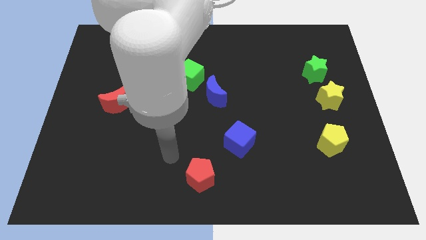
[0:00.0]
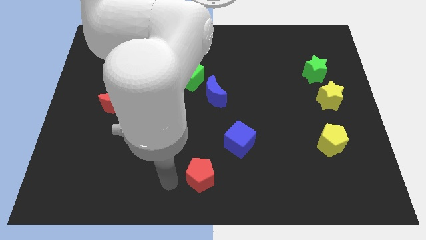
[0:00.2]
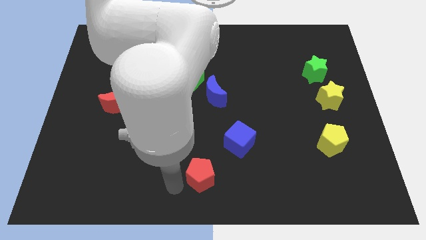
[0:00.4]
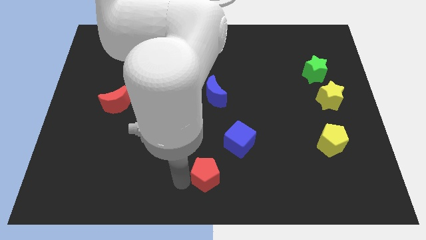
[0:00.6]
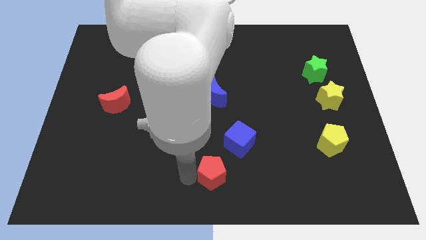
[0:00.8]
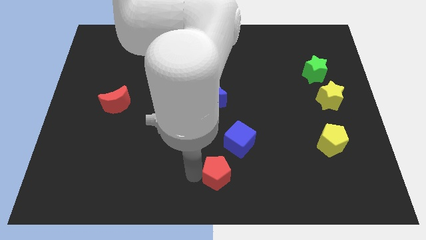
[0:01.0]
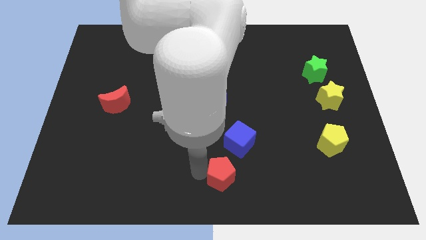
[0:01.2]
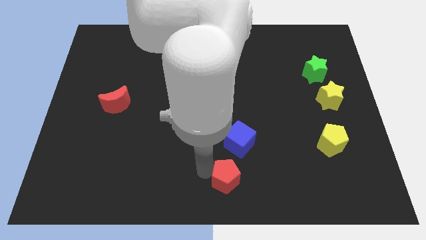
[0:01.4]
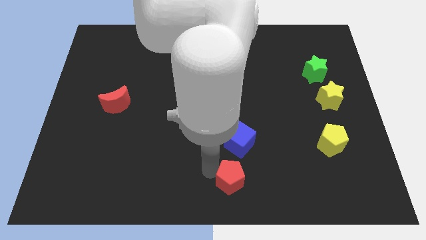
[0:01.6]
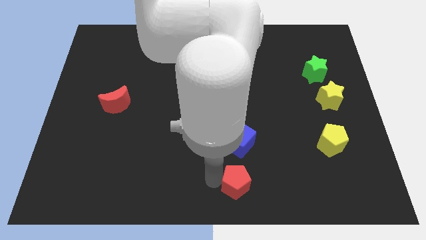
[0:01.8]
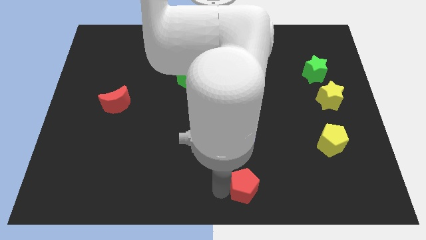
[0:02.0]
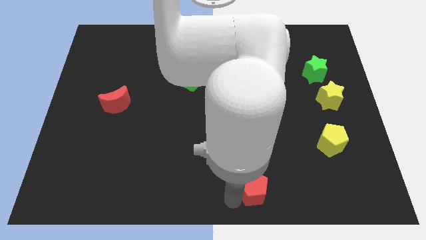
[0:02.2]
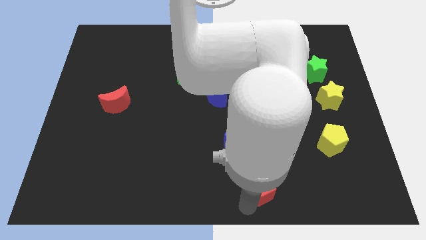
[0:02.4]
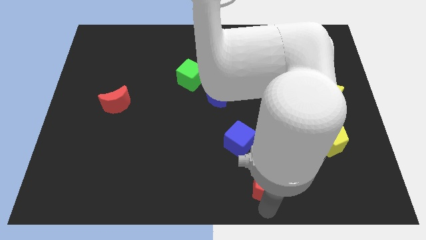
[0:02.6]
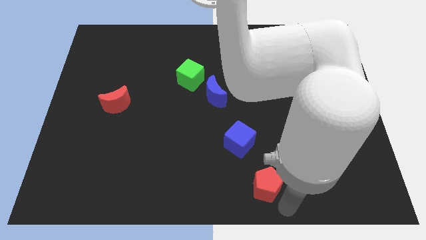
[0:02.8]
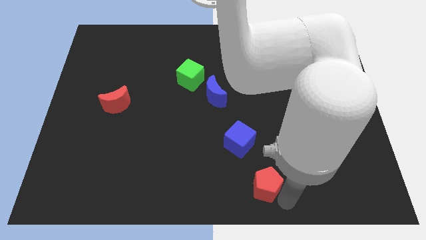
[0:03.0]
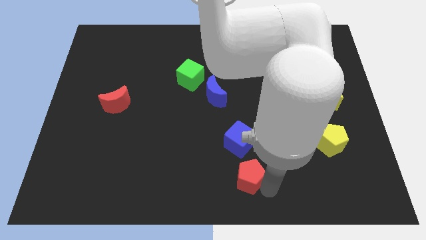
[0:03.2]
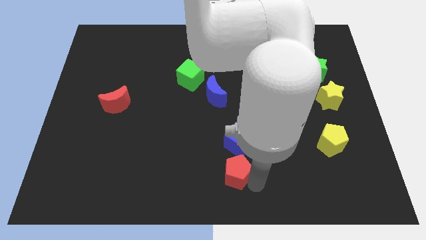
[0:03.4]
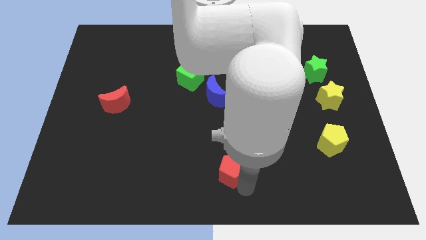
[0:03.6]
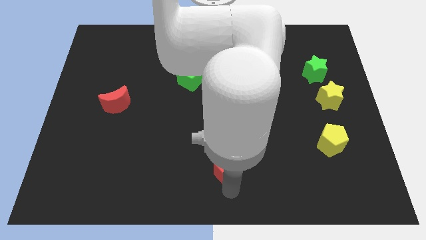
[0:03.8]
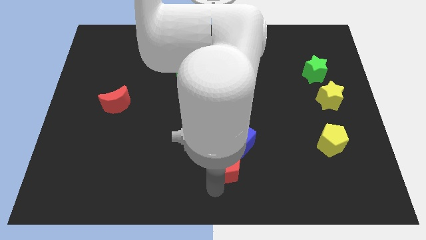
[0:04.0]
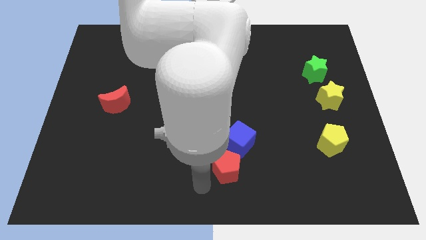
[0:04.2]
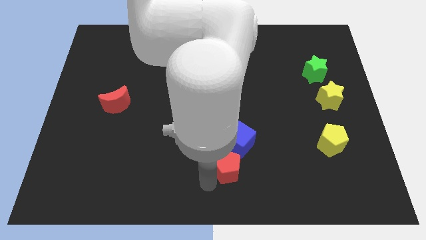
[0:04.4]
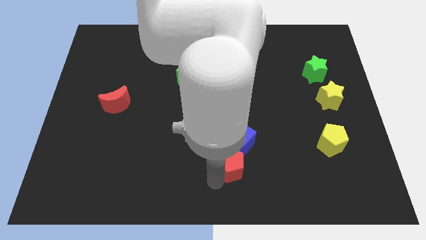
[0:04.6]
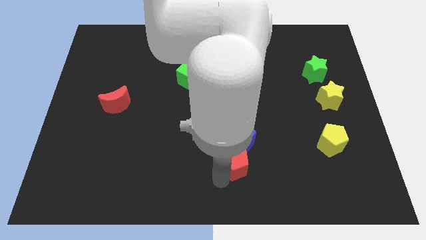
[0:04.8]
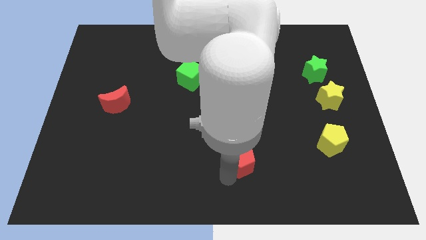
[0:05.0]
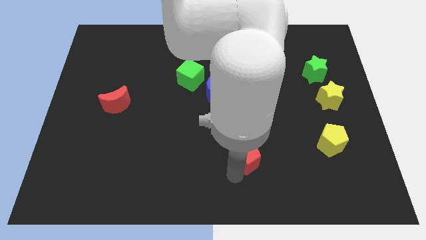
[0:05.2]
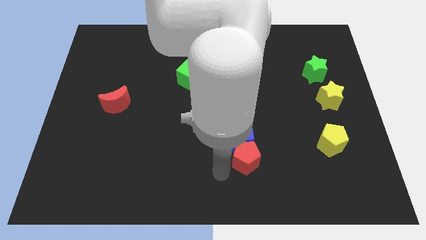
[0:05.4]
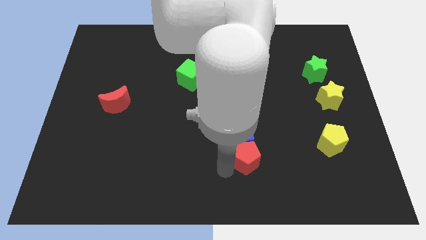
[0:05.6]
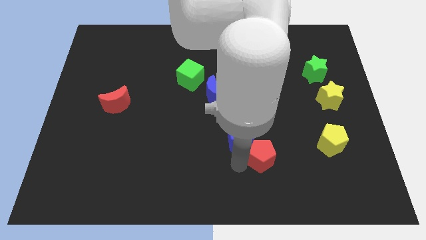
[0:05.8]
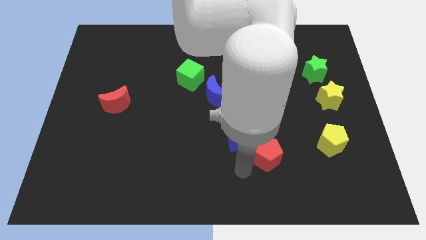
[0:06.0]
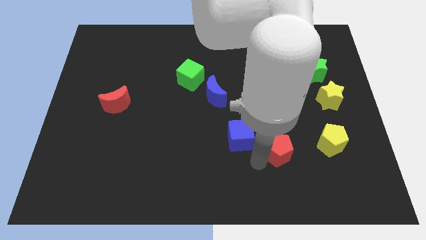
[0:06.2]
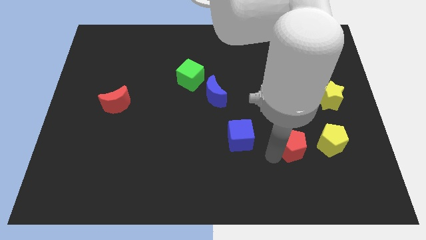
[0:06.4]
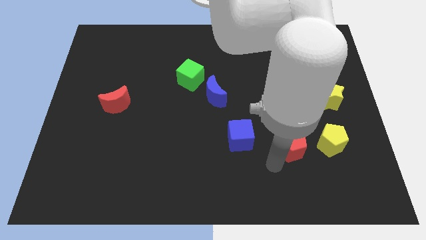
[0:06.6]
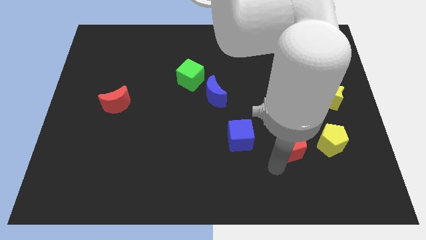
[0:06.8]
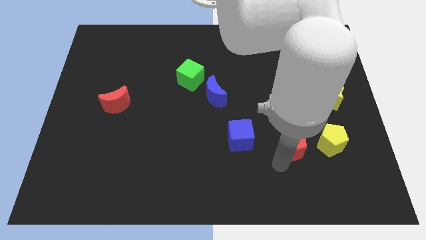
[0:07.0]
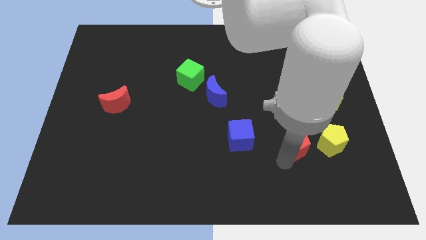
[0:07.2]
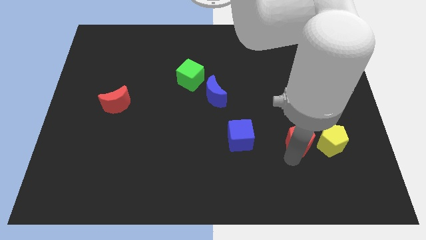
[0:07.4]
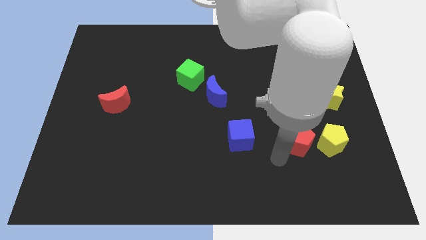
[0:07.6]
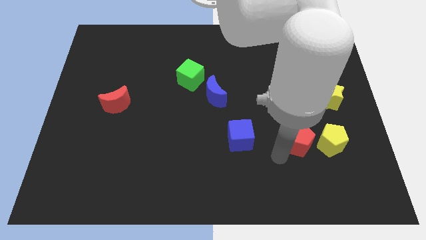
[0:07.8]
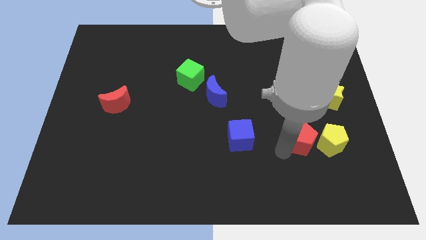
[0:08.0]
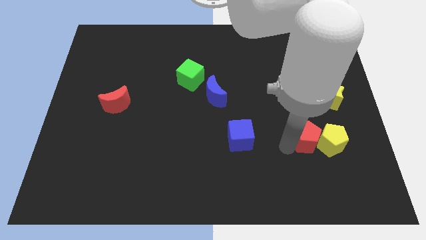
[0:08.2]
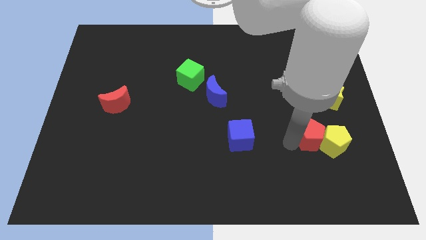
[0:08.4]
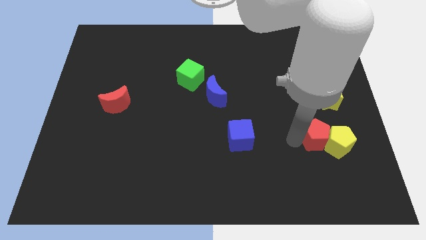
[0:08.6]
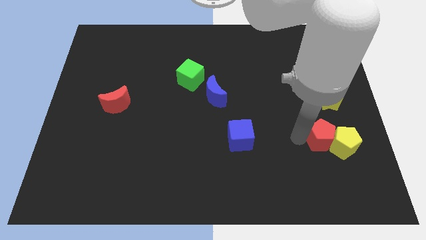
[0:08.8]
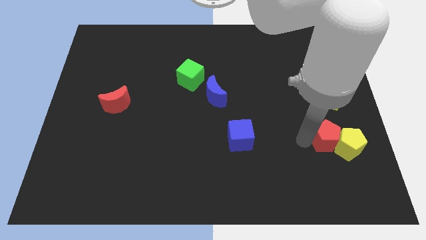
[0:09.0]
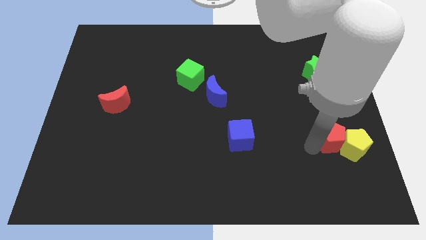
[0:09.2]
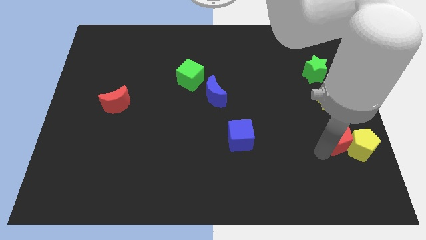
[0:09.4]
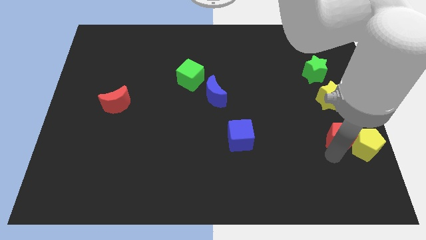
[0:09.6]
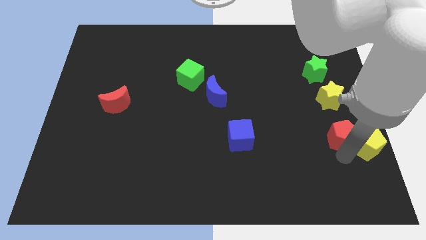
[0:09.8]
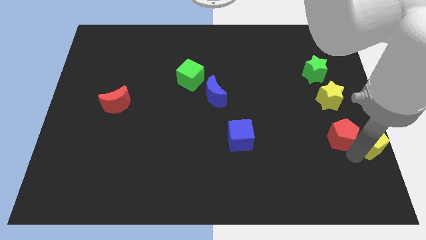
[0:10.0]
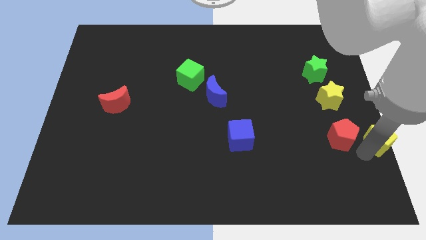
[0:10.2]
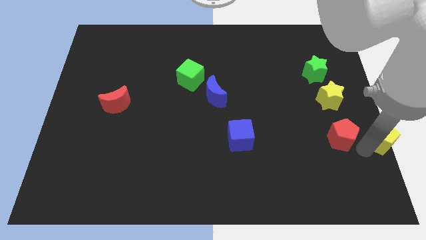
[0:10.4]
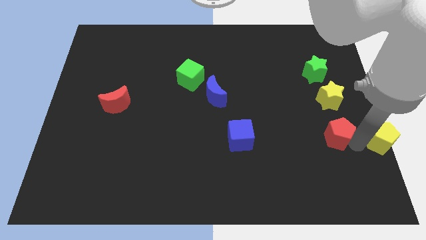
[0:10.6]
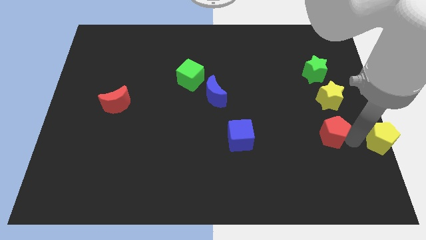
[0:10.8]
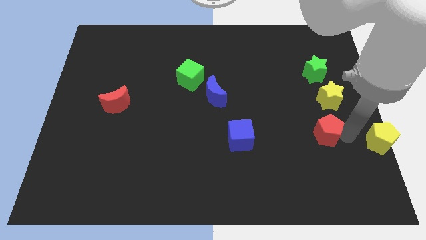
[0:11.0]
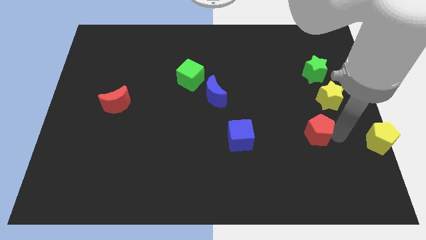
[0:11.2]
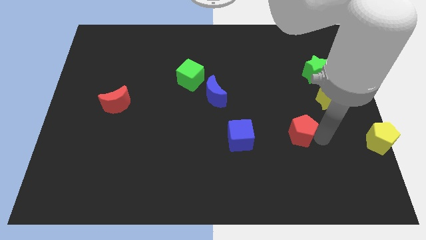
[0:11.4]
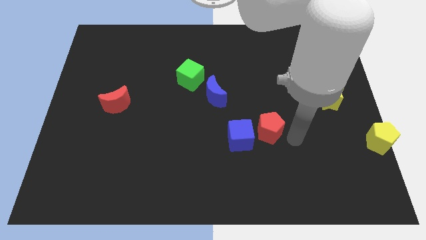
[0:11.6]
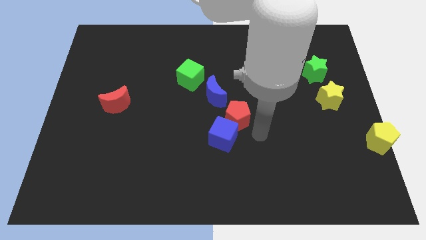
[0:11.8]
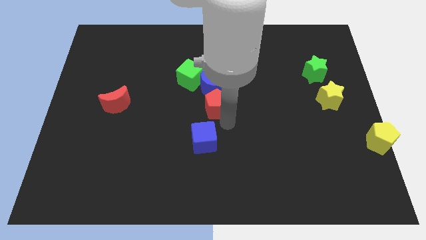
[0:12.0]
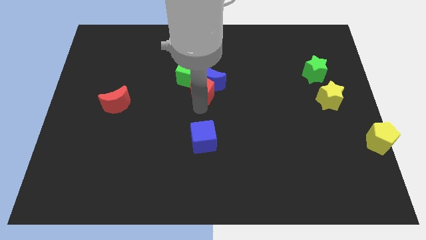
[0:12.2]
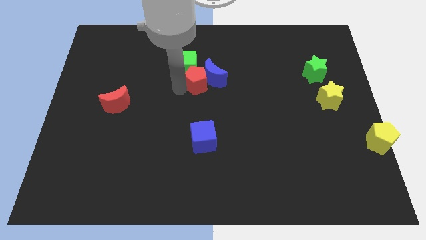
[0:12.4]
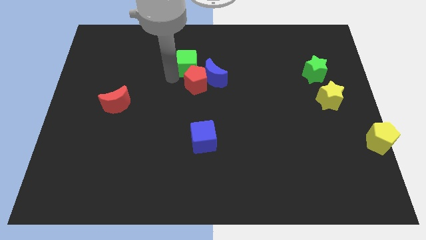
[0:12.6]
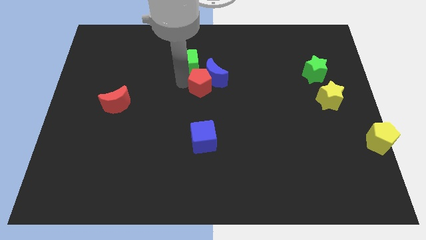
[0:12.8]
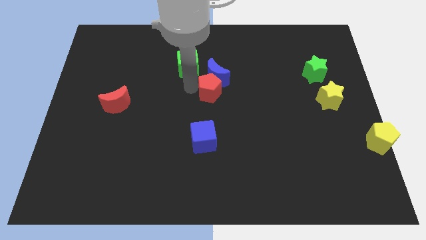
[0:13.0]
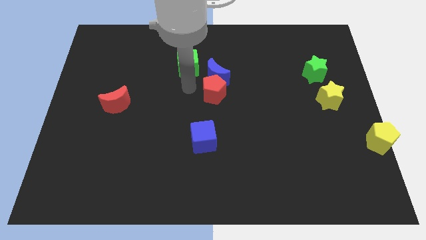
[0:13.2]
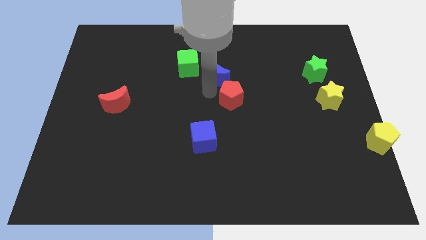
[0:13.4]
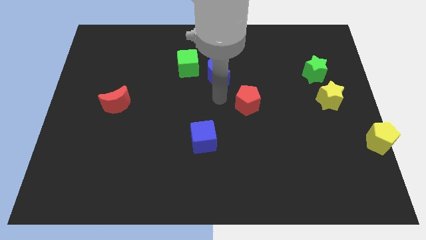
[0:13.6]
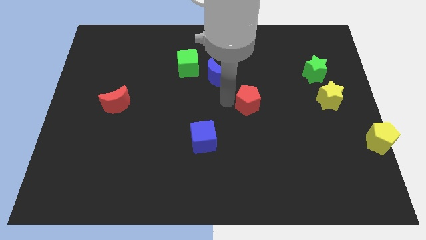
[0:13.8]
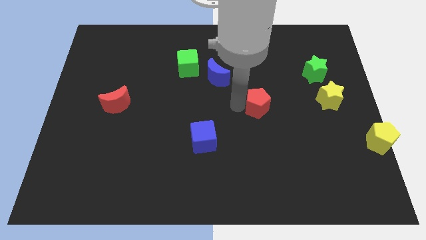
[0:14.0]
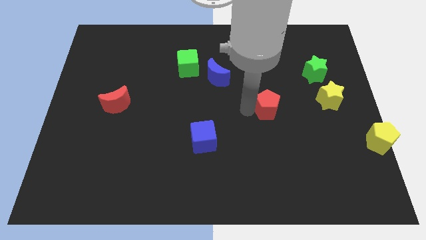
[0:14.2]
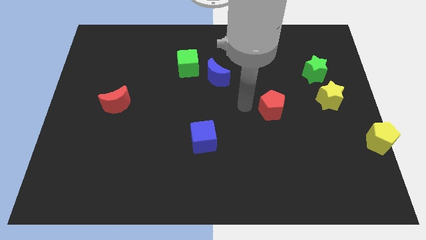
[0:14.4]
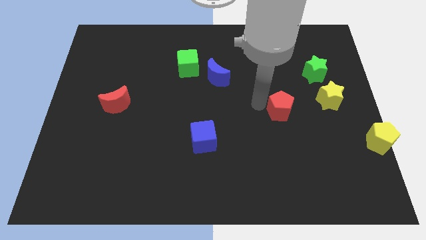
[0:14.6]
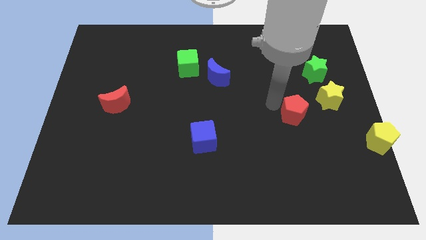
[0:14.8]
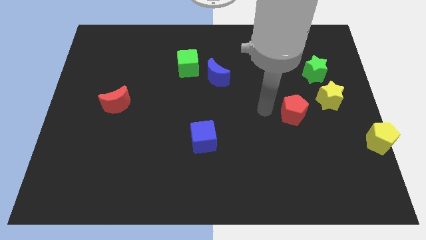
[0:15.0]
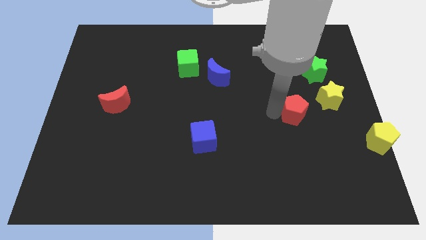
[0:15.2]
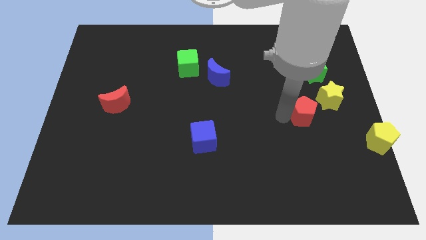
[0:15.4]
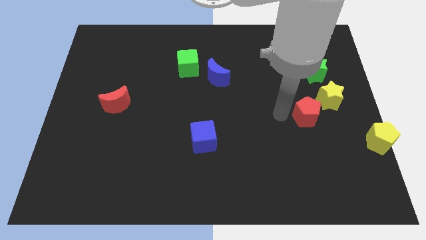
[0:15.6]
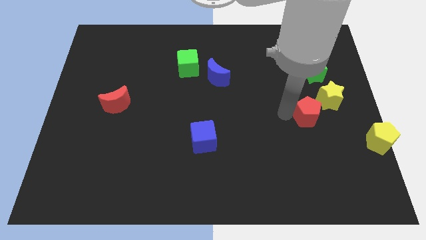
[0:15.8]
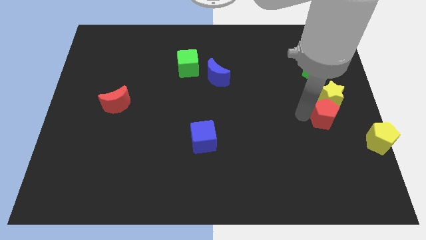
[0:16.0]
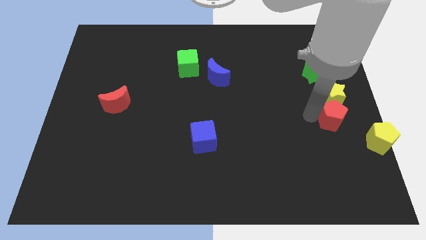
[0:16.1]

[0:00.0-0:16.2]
push the red pentagon to the right side
